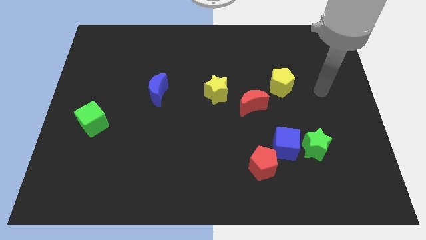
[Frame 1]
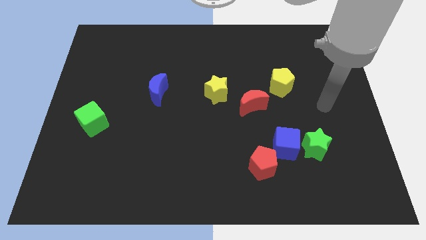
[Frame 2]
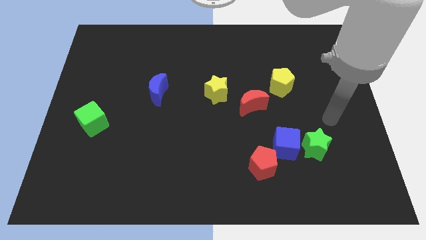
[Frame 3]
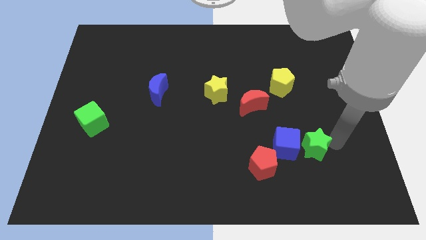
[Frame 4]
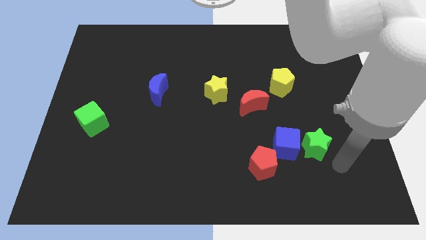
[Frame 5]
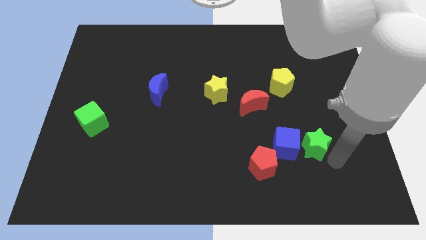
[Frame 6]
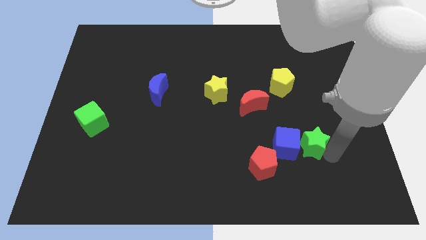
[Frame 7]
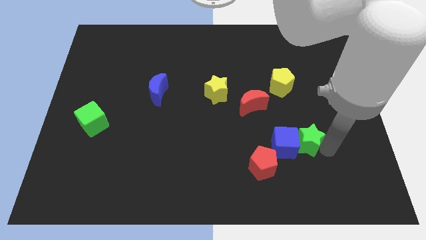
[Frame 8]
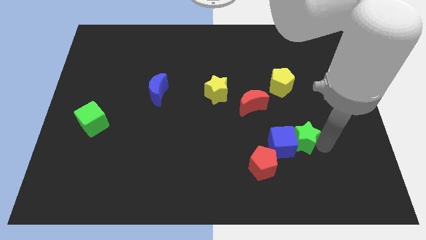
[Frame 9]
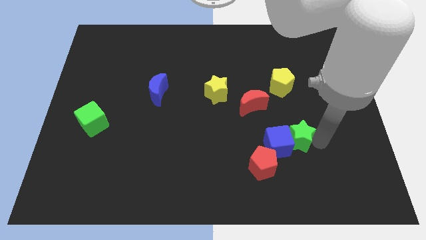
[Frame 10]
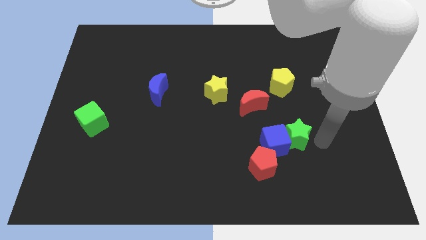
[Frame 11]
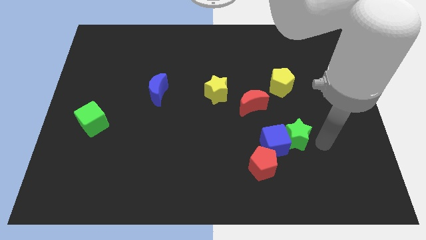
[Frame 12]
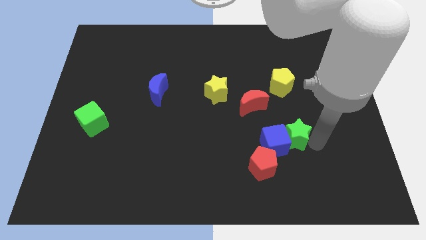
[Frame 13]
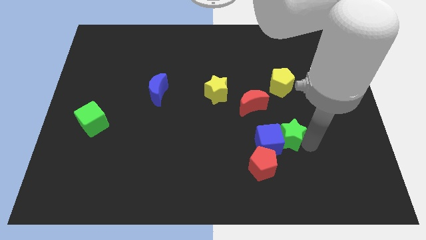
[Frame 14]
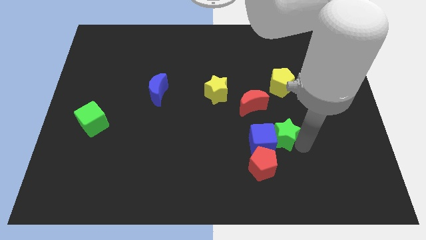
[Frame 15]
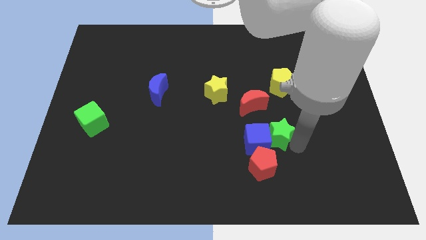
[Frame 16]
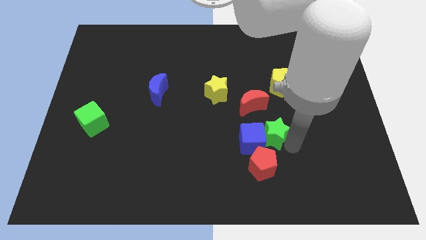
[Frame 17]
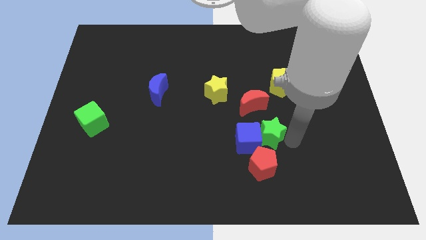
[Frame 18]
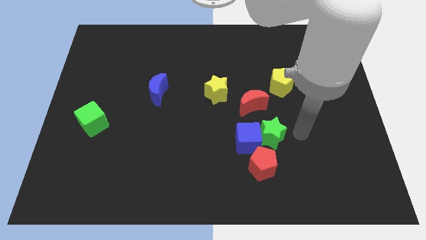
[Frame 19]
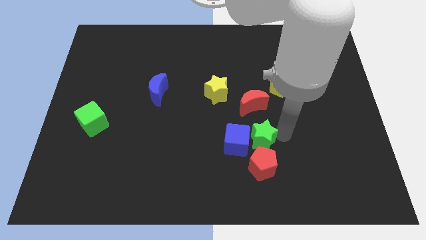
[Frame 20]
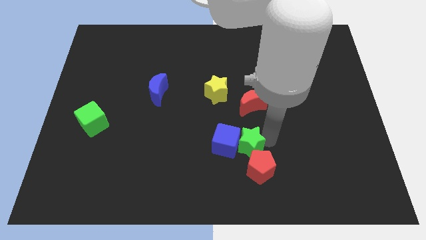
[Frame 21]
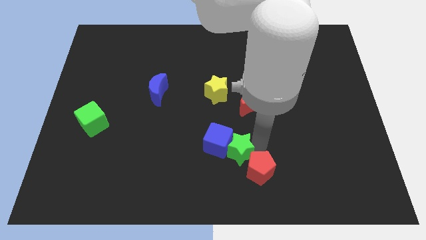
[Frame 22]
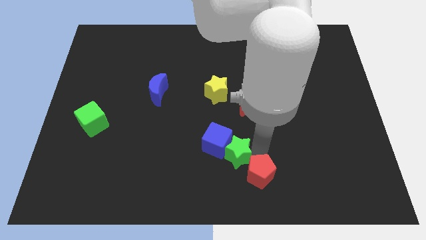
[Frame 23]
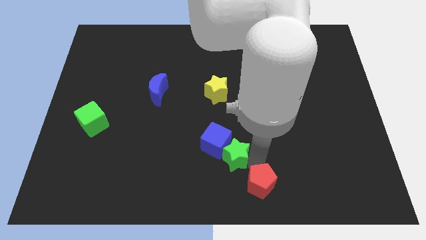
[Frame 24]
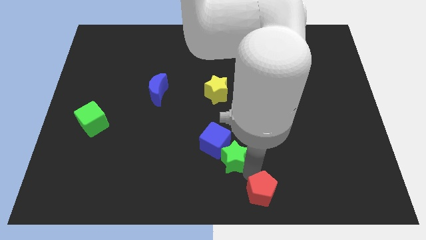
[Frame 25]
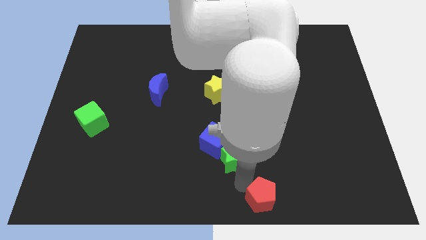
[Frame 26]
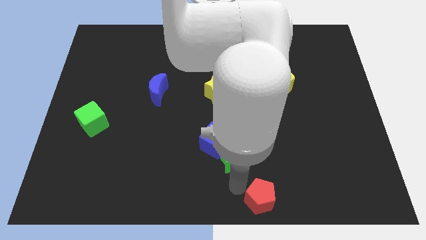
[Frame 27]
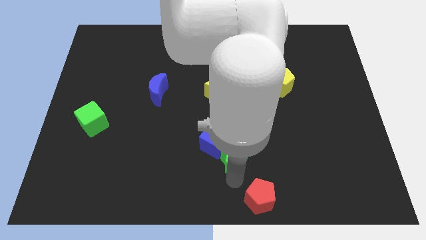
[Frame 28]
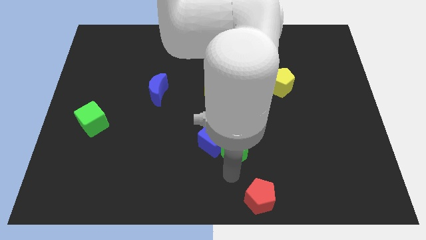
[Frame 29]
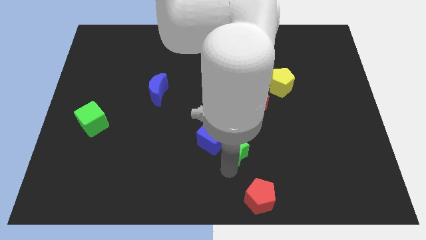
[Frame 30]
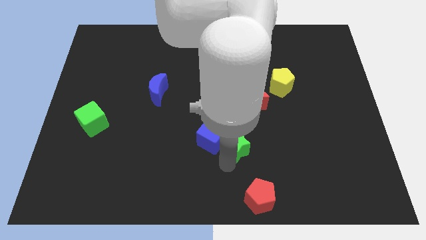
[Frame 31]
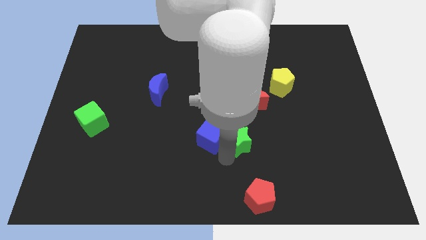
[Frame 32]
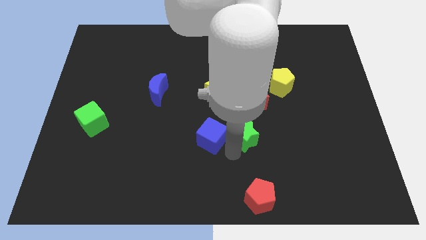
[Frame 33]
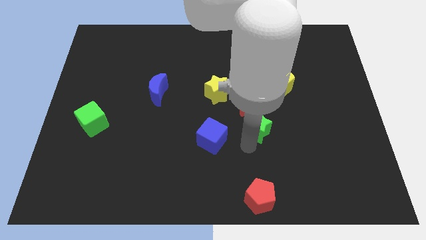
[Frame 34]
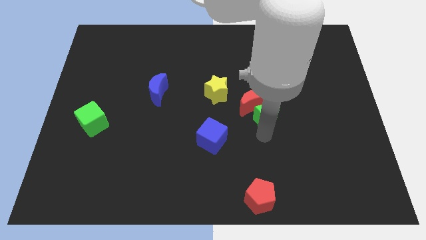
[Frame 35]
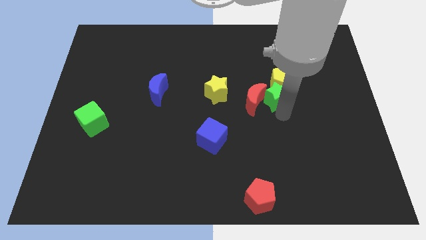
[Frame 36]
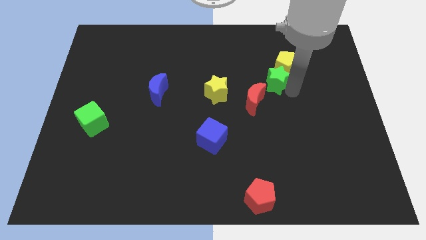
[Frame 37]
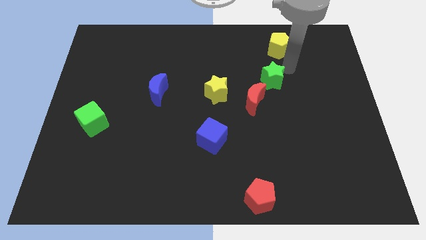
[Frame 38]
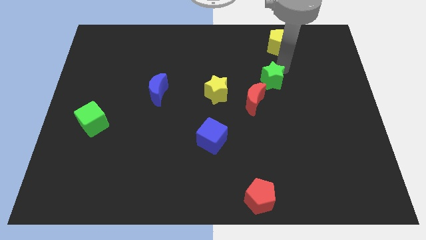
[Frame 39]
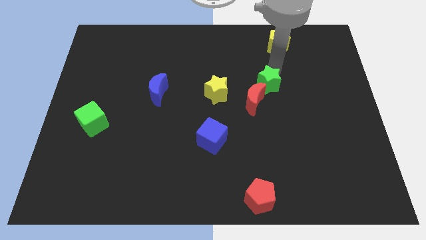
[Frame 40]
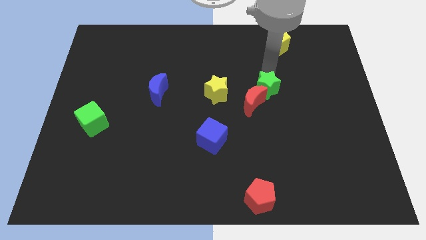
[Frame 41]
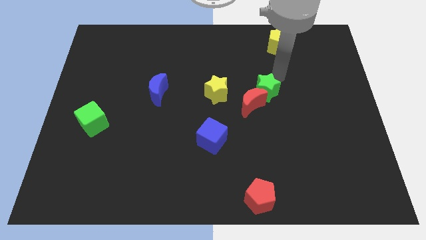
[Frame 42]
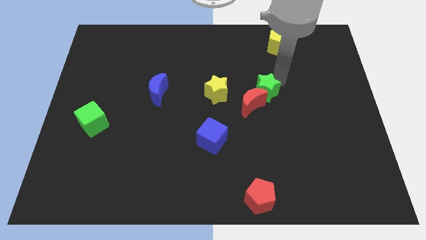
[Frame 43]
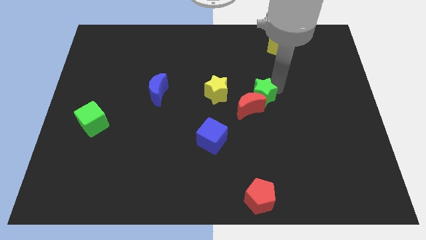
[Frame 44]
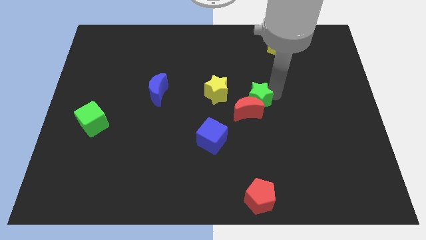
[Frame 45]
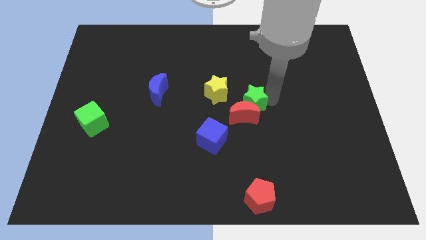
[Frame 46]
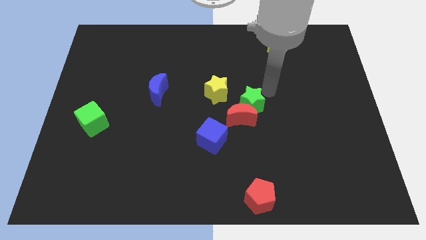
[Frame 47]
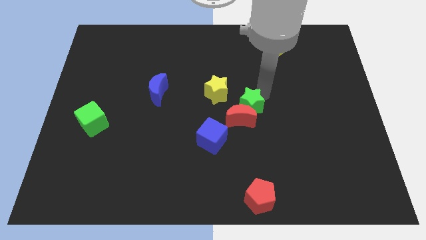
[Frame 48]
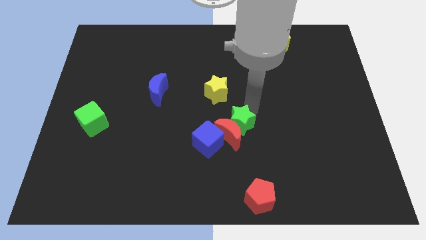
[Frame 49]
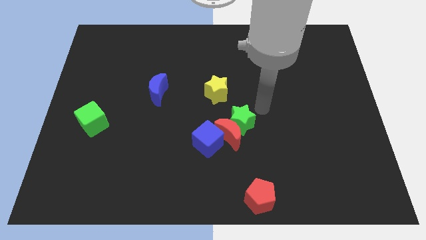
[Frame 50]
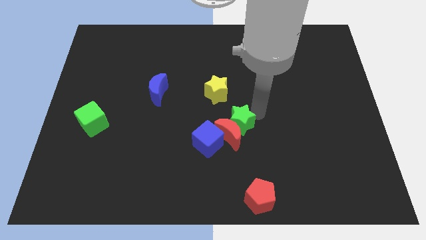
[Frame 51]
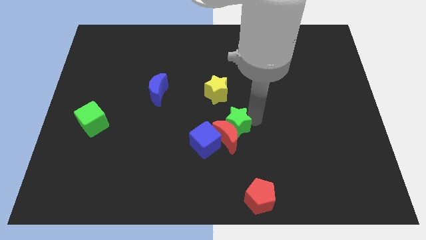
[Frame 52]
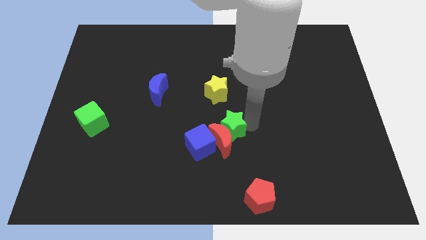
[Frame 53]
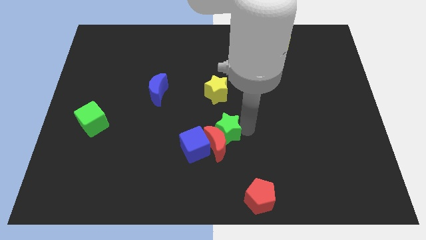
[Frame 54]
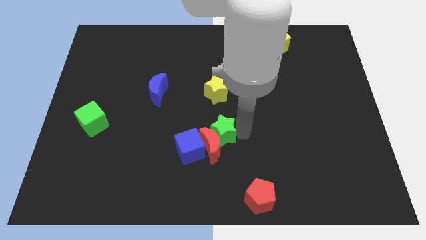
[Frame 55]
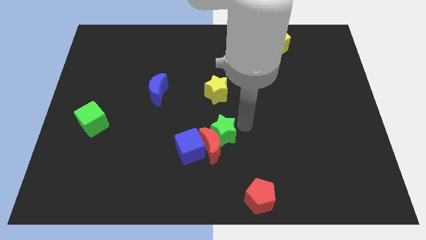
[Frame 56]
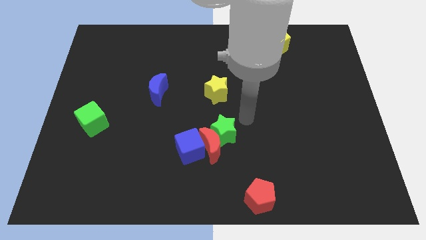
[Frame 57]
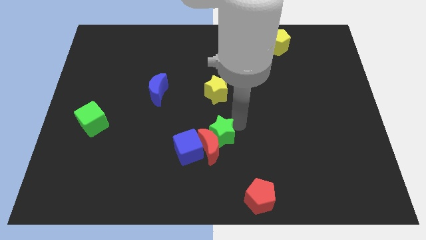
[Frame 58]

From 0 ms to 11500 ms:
slide the green star to the left

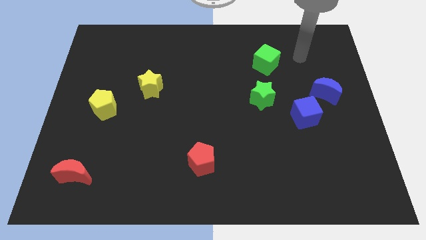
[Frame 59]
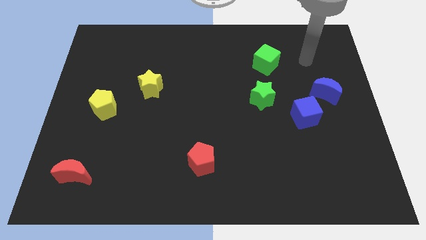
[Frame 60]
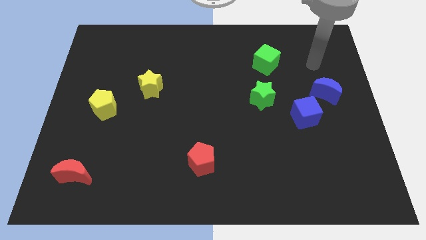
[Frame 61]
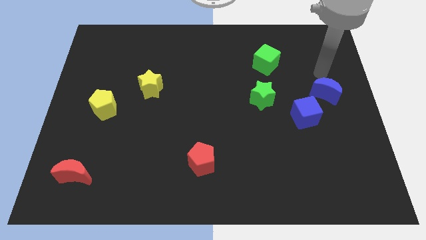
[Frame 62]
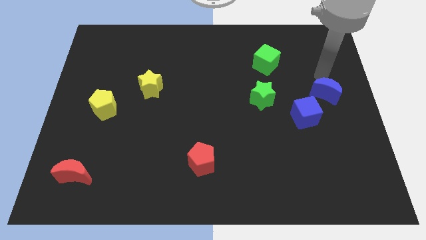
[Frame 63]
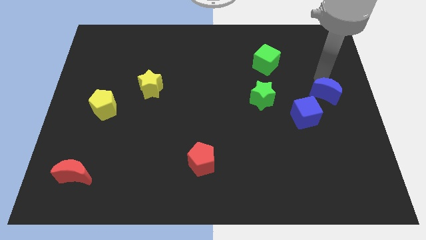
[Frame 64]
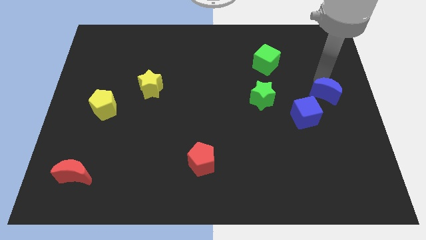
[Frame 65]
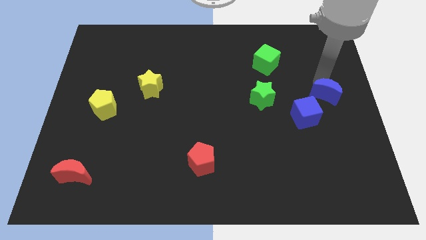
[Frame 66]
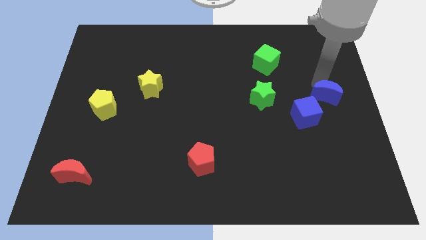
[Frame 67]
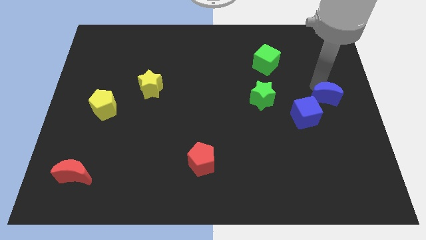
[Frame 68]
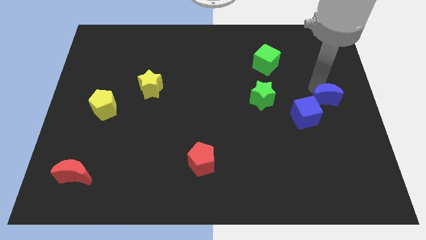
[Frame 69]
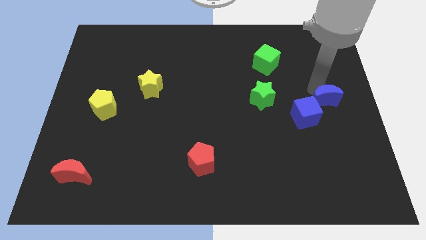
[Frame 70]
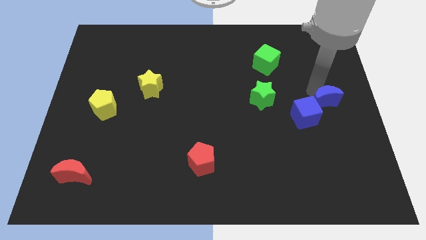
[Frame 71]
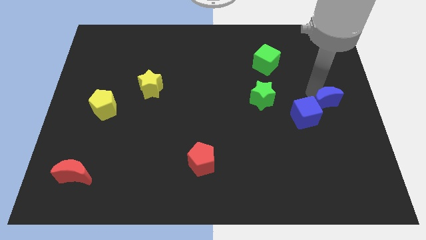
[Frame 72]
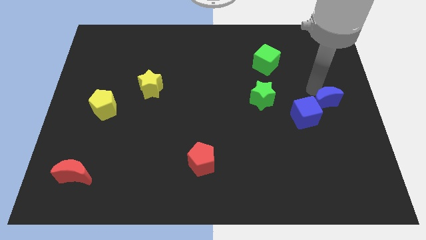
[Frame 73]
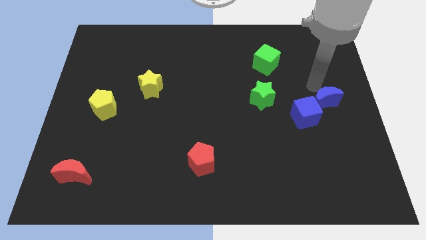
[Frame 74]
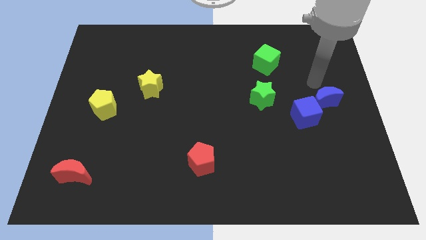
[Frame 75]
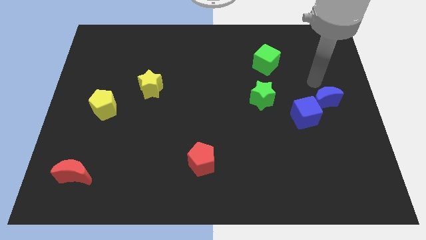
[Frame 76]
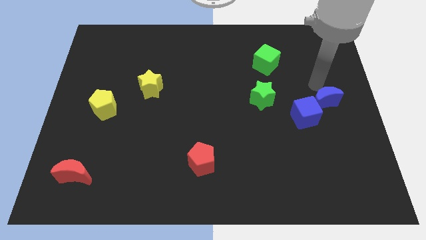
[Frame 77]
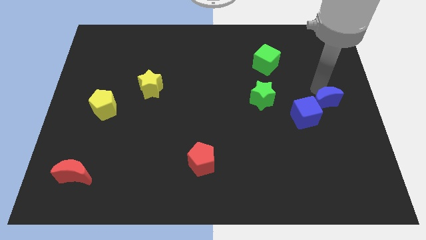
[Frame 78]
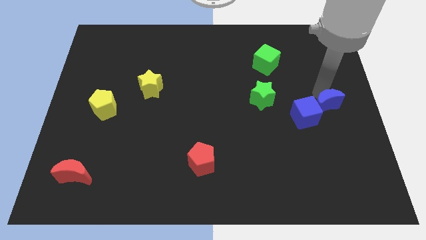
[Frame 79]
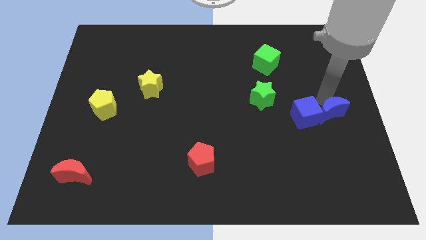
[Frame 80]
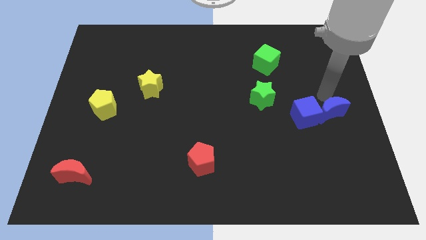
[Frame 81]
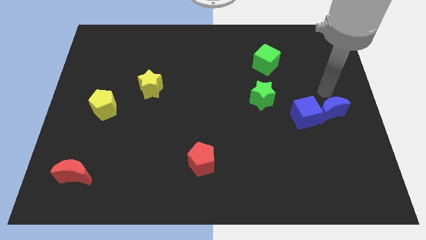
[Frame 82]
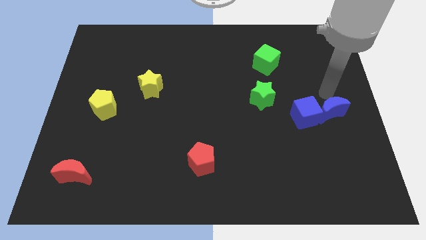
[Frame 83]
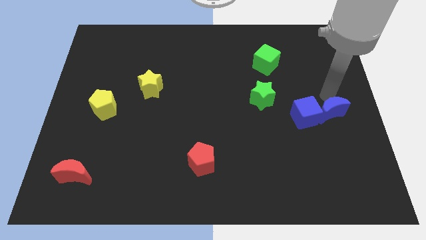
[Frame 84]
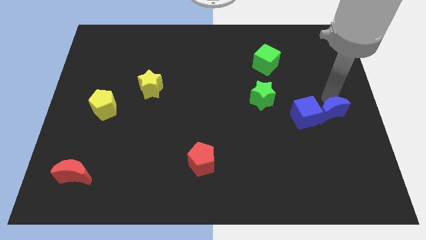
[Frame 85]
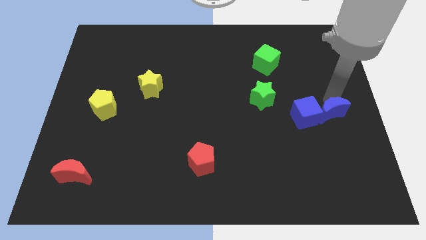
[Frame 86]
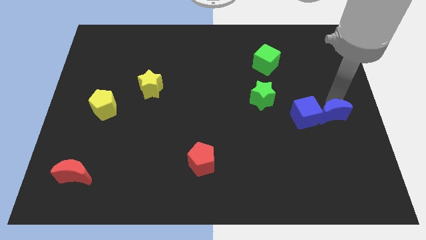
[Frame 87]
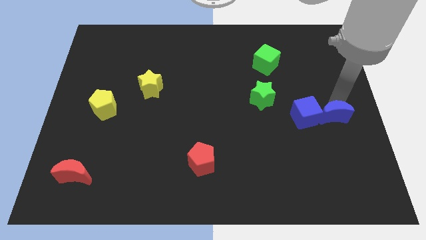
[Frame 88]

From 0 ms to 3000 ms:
slightly move the blue moon downwards
